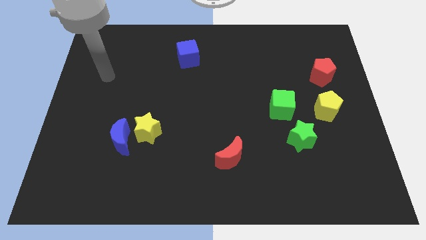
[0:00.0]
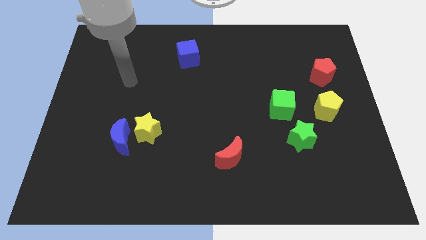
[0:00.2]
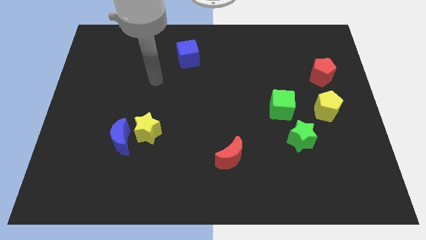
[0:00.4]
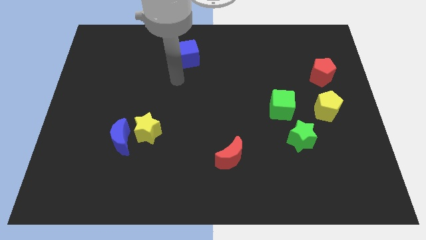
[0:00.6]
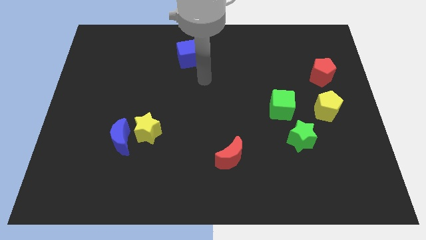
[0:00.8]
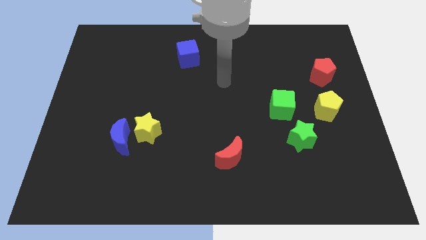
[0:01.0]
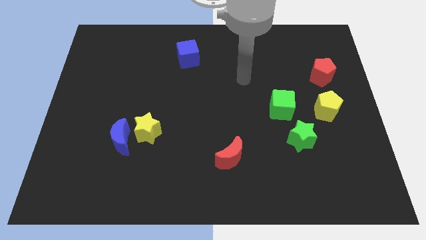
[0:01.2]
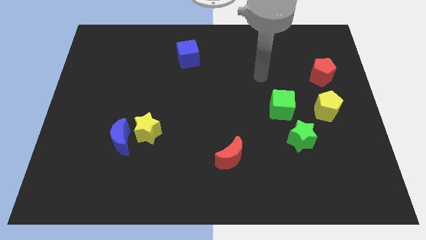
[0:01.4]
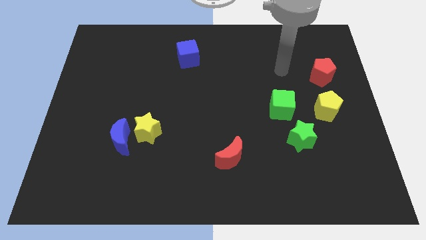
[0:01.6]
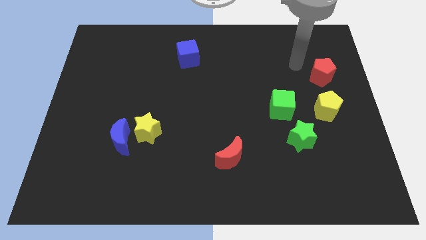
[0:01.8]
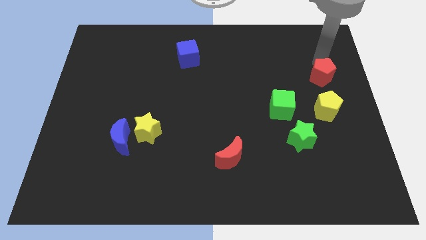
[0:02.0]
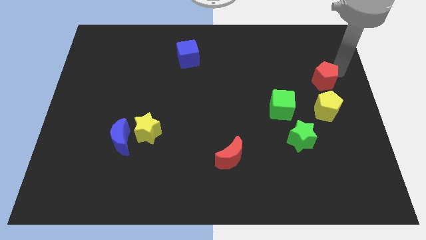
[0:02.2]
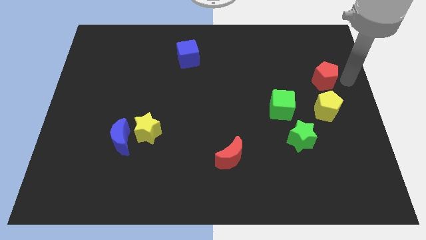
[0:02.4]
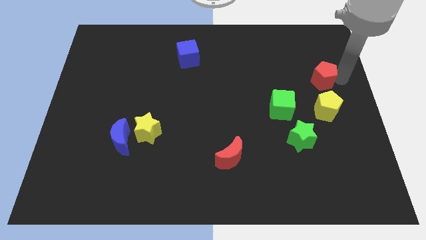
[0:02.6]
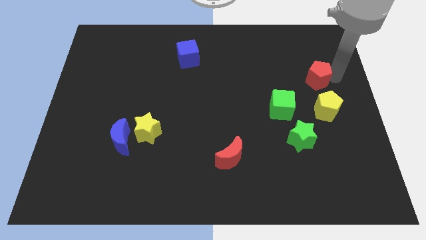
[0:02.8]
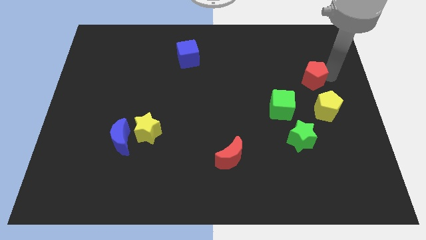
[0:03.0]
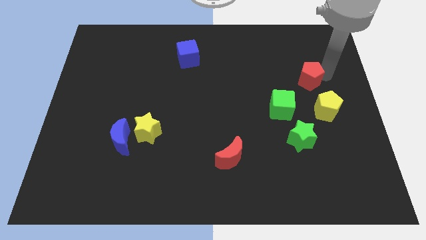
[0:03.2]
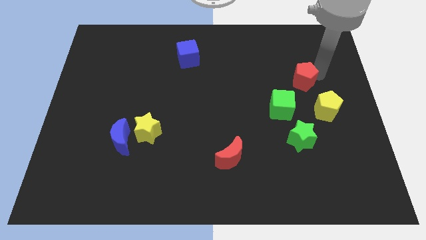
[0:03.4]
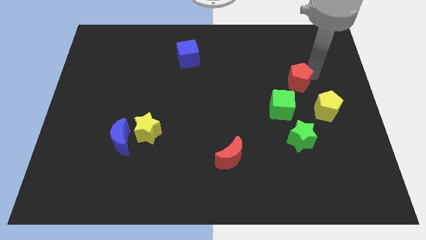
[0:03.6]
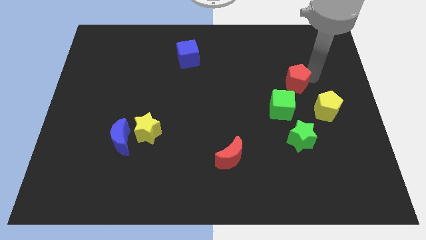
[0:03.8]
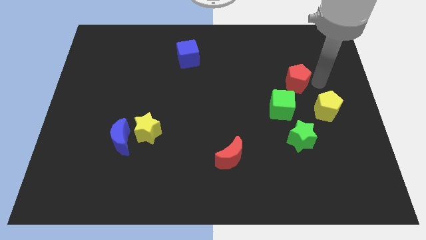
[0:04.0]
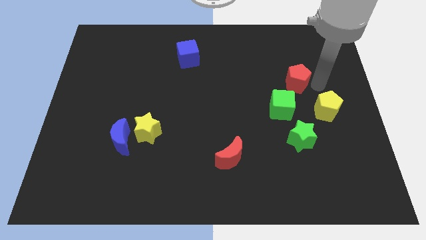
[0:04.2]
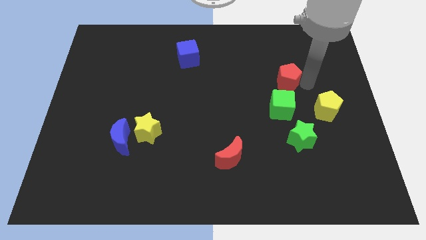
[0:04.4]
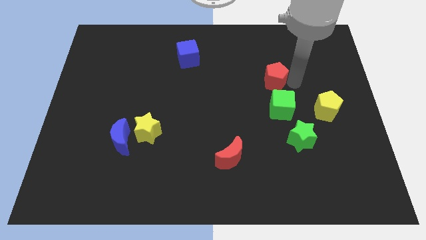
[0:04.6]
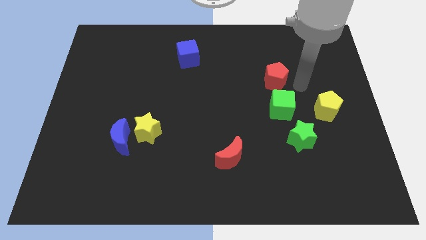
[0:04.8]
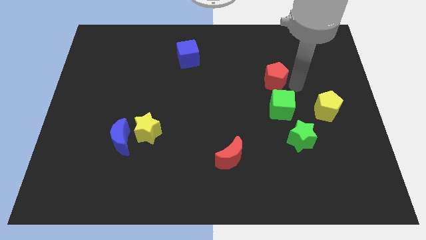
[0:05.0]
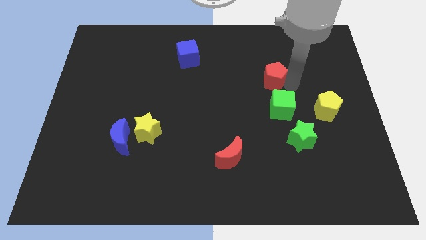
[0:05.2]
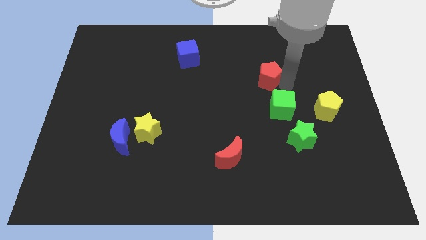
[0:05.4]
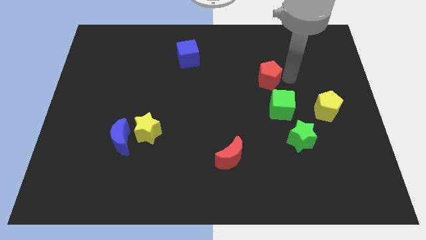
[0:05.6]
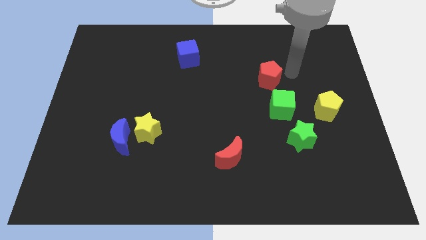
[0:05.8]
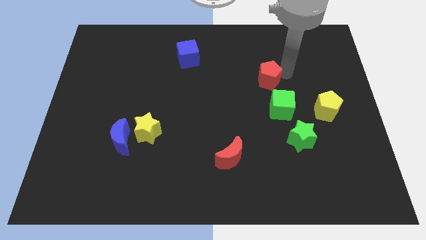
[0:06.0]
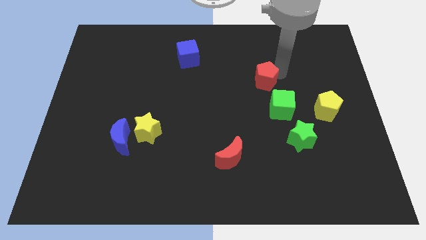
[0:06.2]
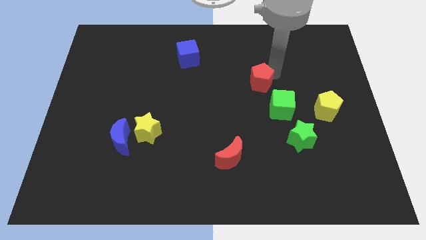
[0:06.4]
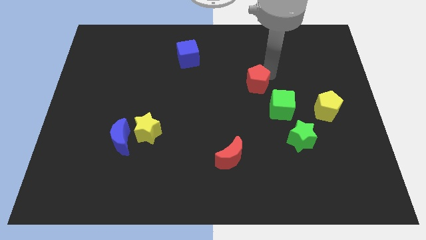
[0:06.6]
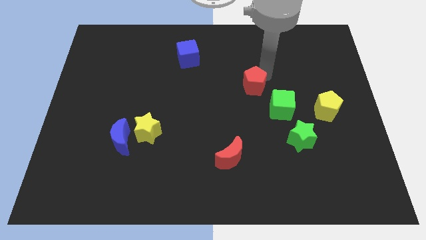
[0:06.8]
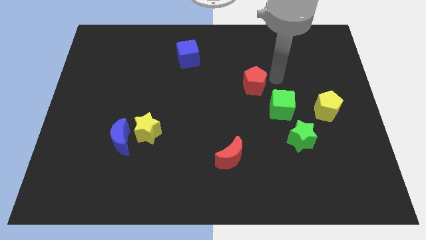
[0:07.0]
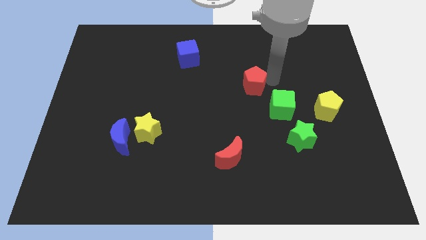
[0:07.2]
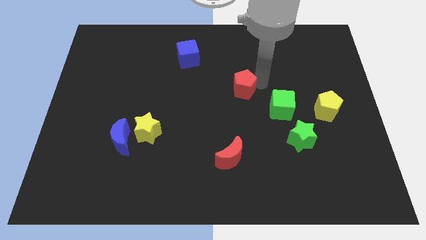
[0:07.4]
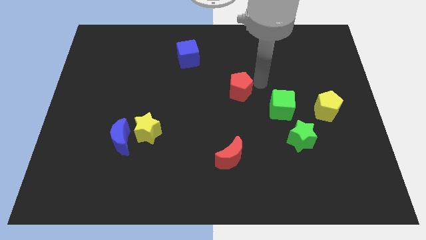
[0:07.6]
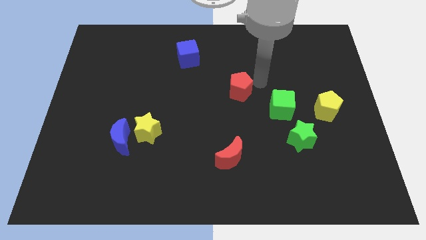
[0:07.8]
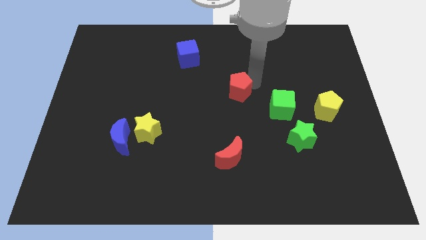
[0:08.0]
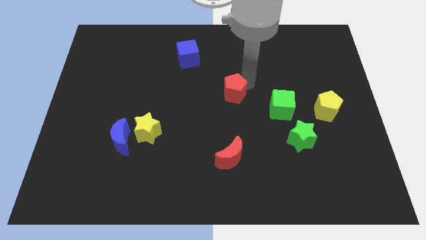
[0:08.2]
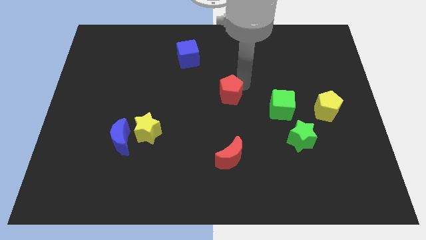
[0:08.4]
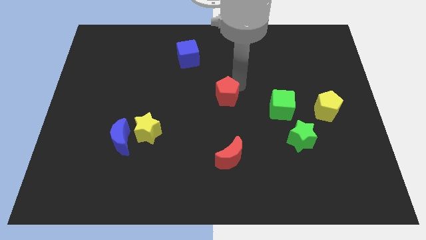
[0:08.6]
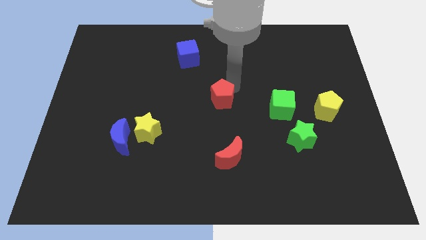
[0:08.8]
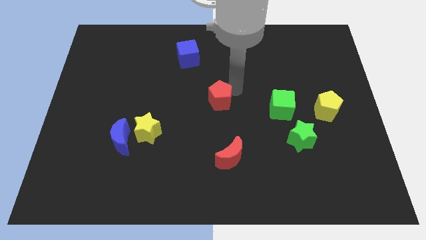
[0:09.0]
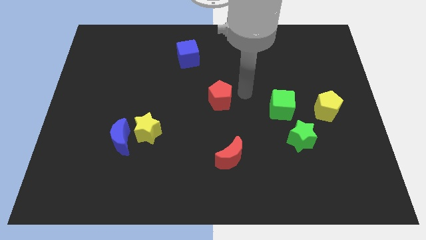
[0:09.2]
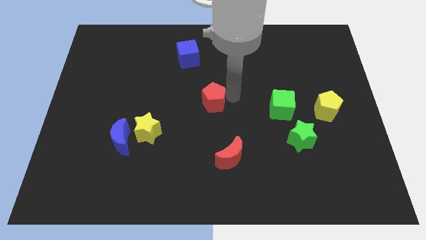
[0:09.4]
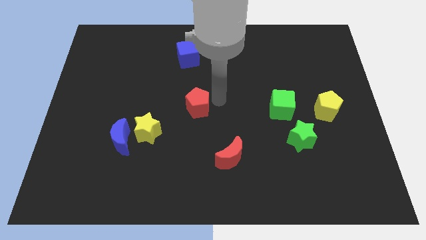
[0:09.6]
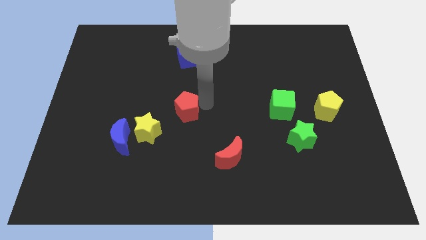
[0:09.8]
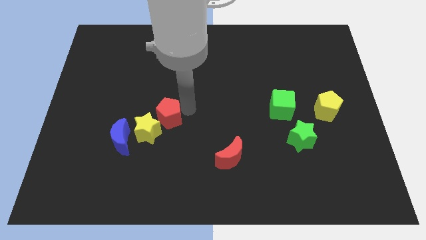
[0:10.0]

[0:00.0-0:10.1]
put the red pentagon next to the yellow star

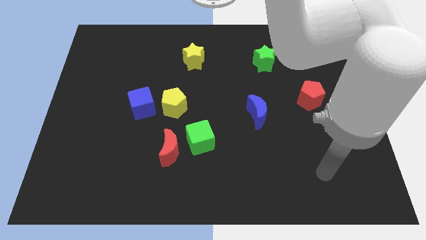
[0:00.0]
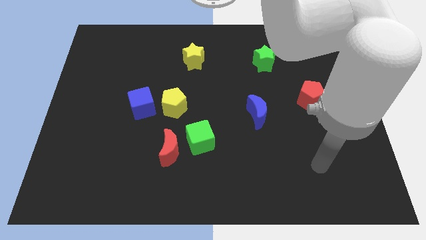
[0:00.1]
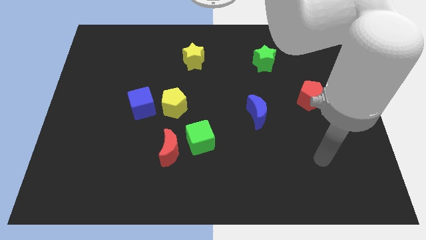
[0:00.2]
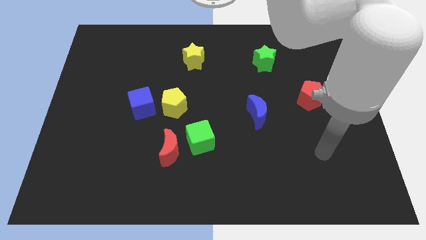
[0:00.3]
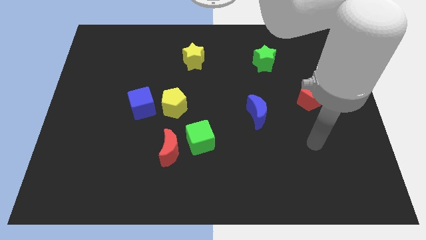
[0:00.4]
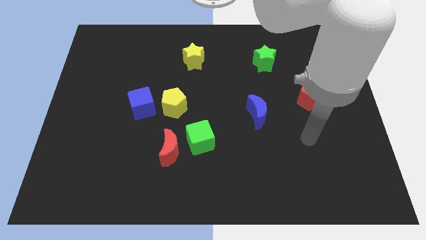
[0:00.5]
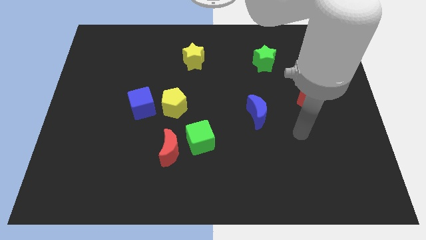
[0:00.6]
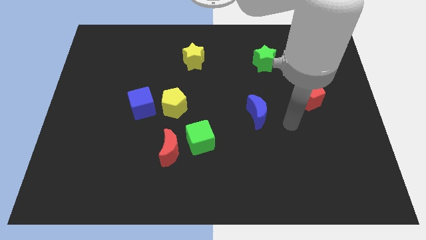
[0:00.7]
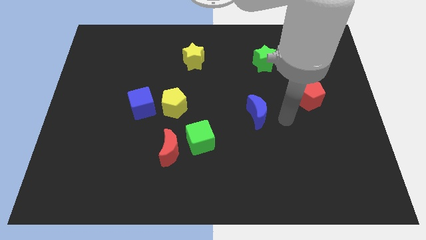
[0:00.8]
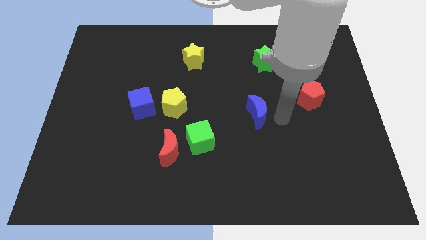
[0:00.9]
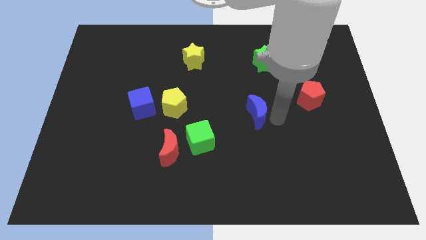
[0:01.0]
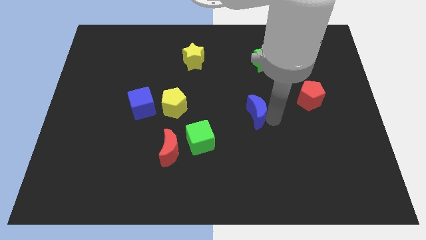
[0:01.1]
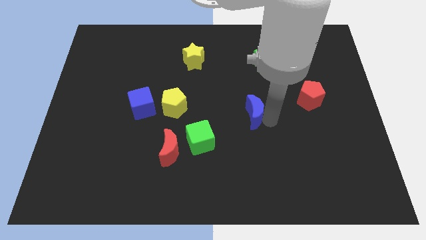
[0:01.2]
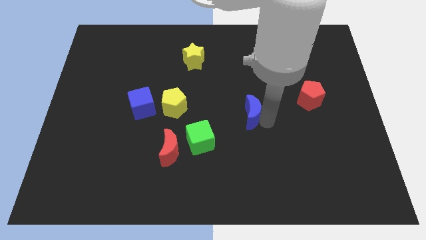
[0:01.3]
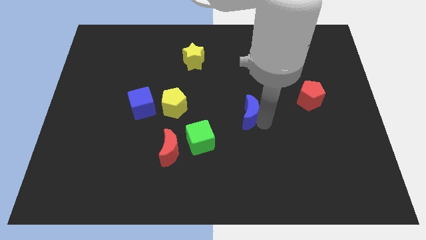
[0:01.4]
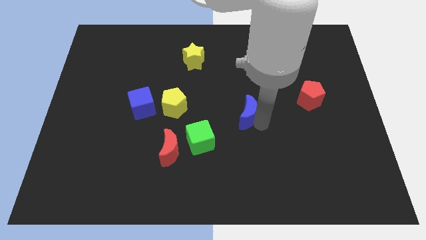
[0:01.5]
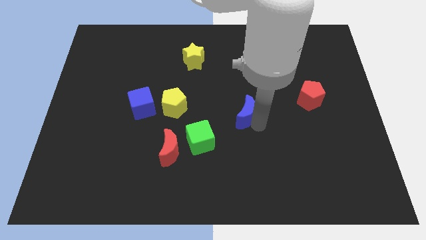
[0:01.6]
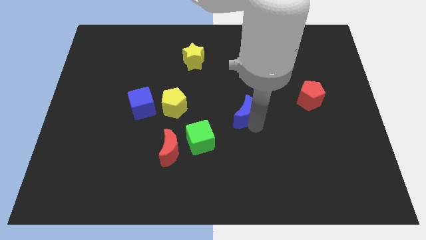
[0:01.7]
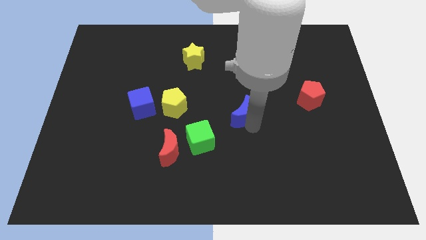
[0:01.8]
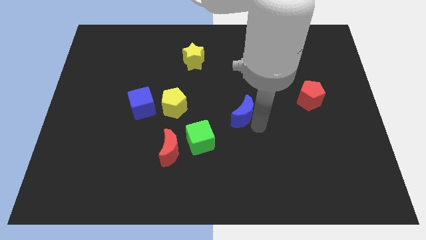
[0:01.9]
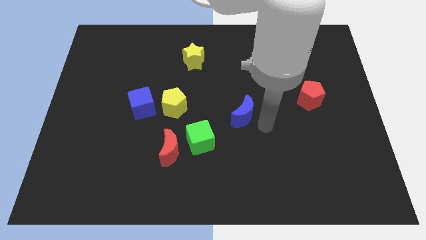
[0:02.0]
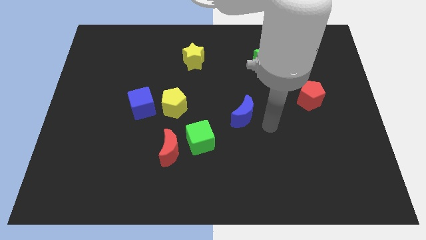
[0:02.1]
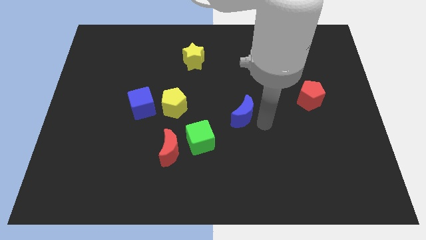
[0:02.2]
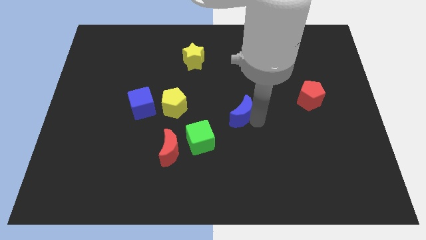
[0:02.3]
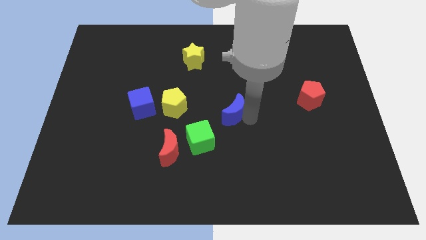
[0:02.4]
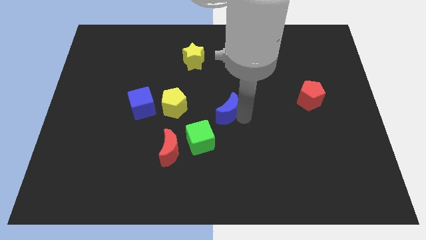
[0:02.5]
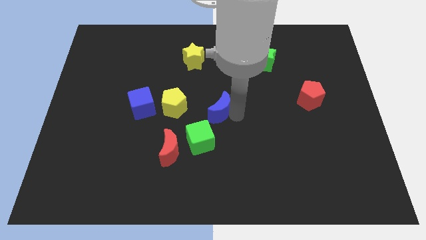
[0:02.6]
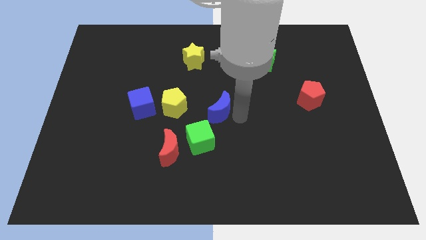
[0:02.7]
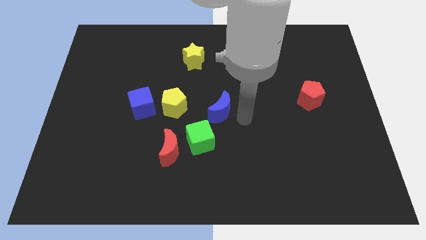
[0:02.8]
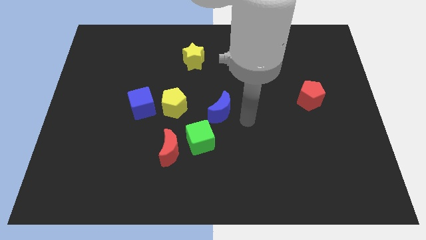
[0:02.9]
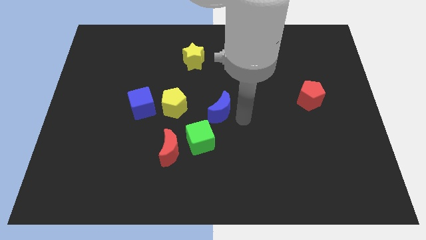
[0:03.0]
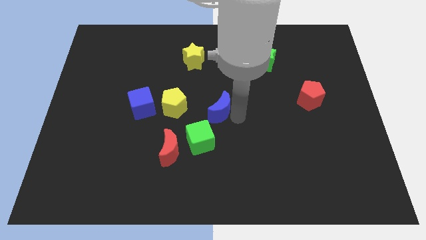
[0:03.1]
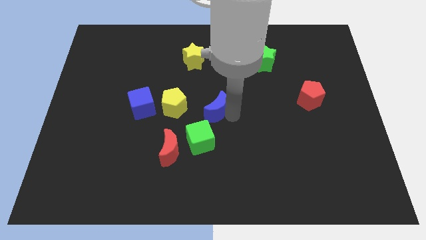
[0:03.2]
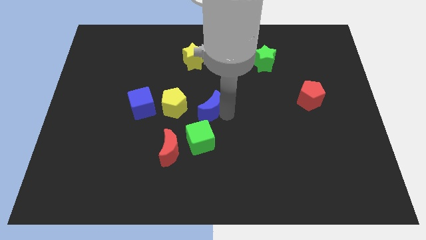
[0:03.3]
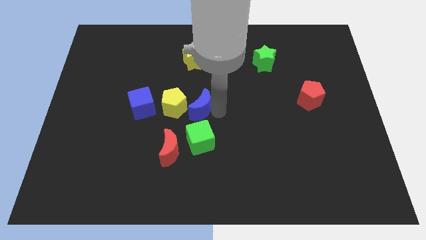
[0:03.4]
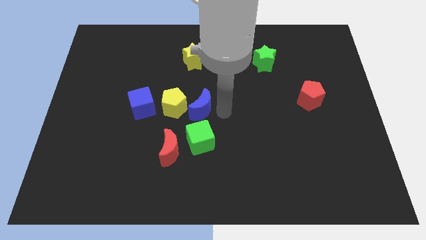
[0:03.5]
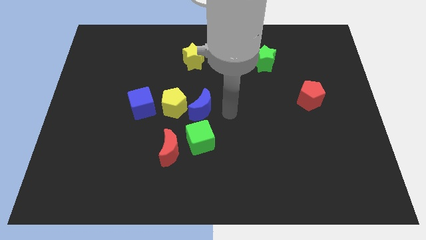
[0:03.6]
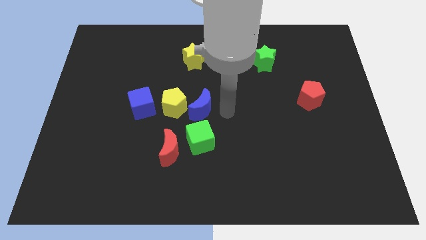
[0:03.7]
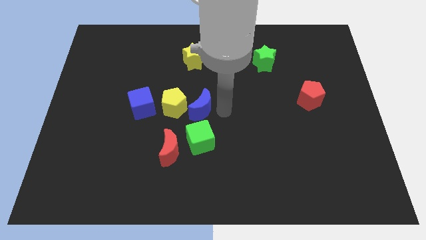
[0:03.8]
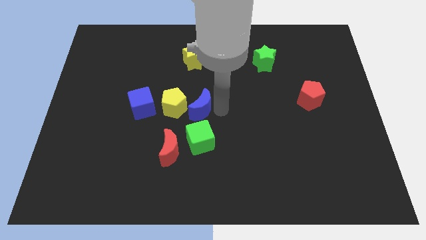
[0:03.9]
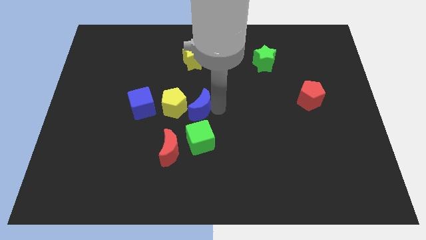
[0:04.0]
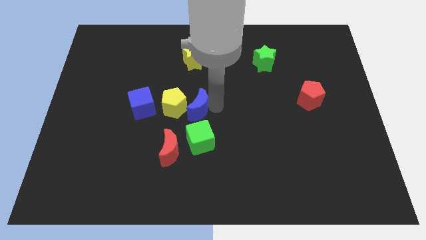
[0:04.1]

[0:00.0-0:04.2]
push the blue moon close to the yellow pentagon
